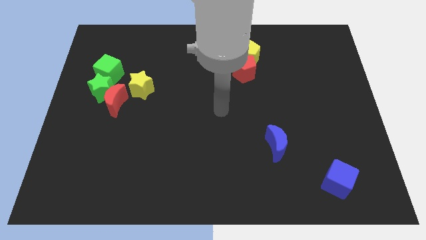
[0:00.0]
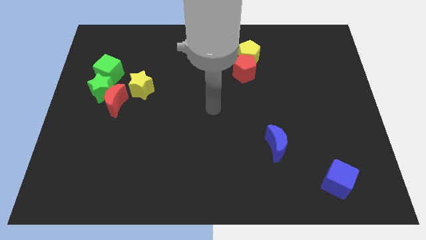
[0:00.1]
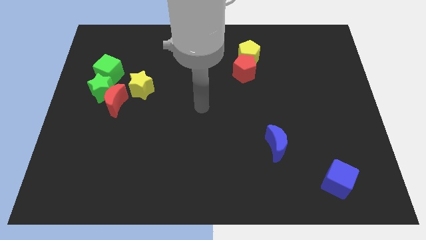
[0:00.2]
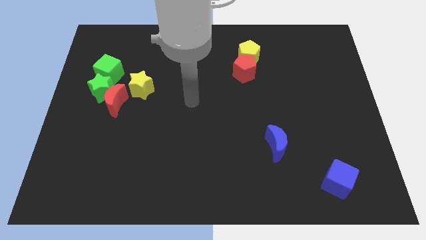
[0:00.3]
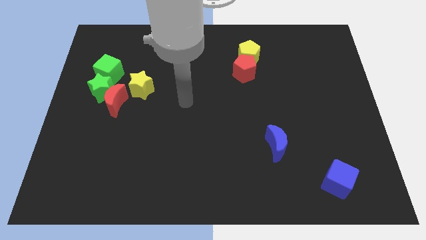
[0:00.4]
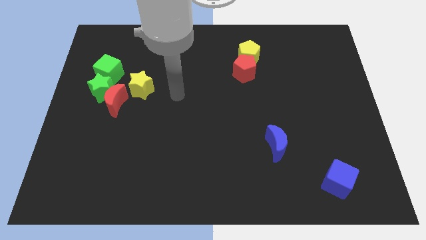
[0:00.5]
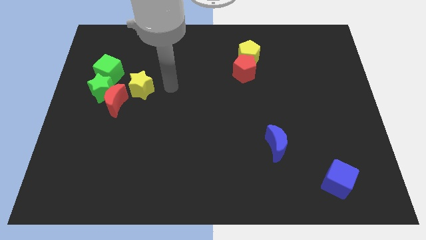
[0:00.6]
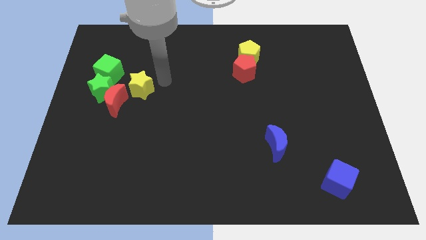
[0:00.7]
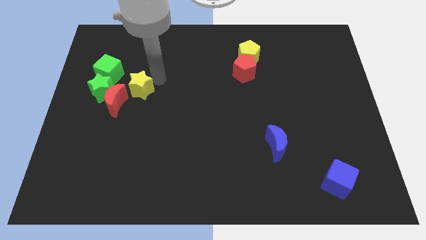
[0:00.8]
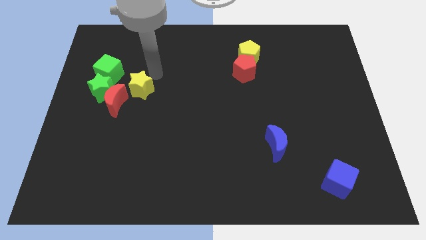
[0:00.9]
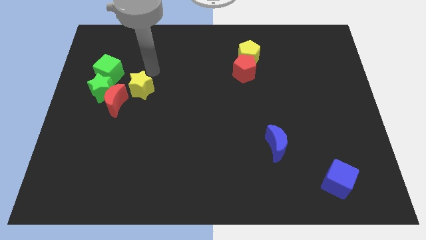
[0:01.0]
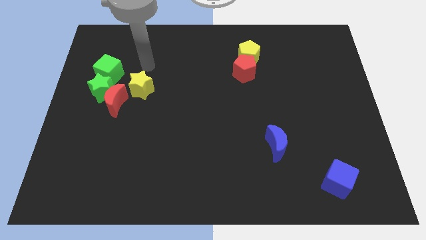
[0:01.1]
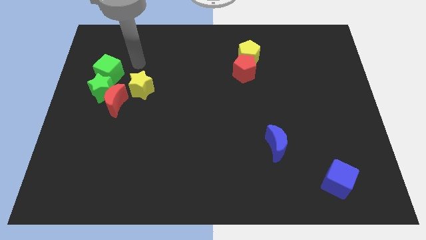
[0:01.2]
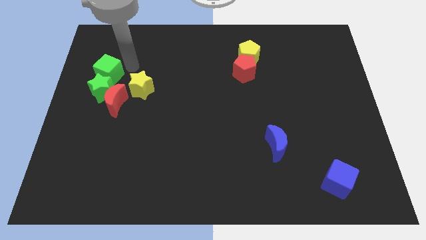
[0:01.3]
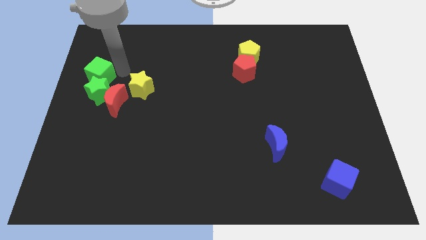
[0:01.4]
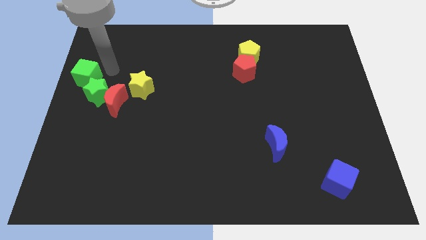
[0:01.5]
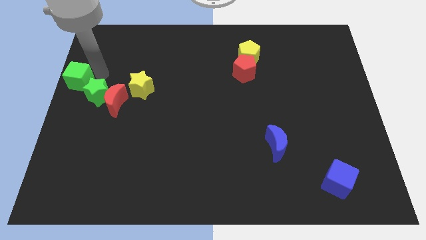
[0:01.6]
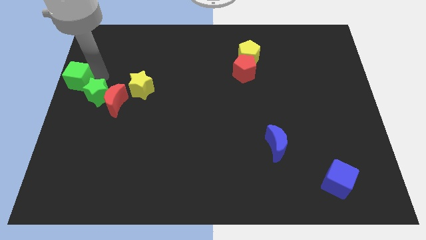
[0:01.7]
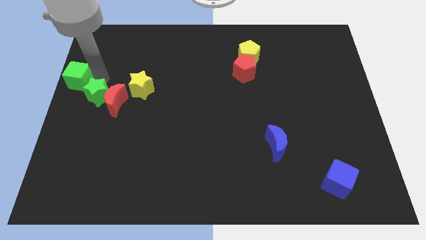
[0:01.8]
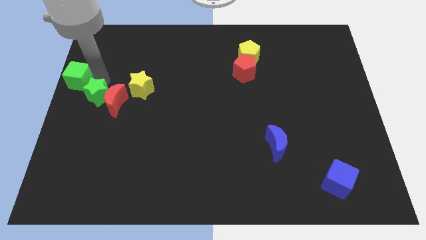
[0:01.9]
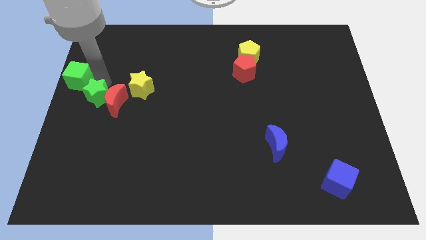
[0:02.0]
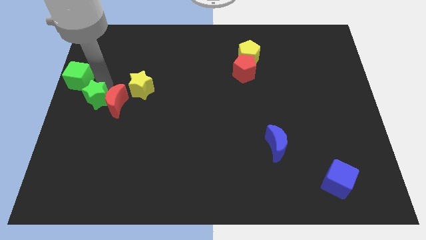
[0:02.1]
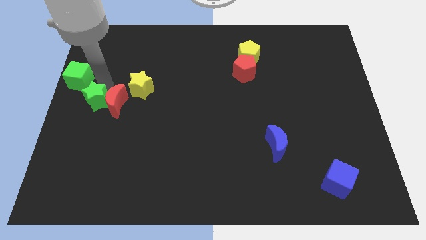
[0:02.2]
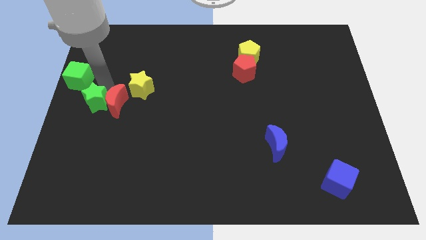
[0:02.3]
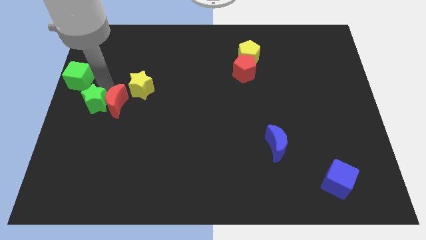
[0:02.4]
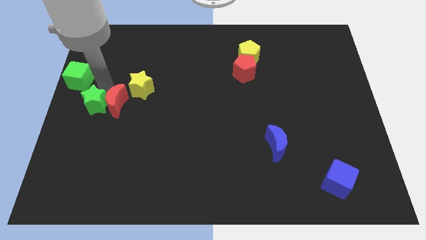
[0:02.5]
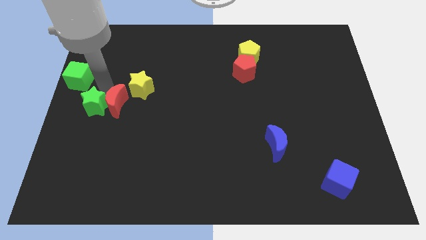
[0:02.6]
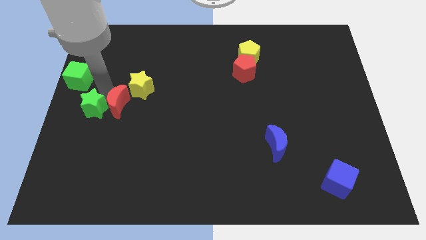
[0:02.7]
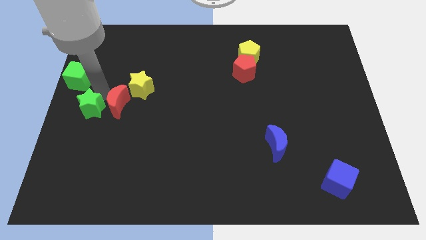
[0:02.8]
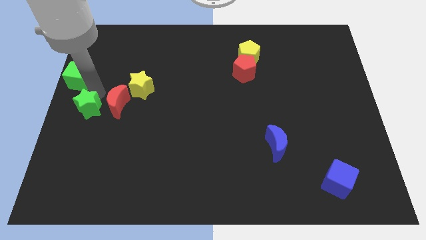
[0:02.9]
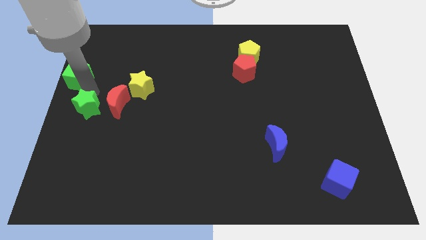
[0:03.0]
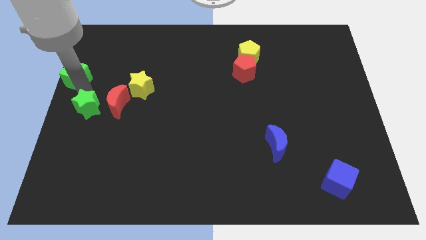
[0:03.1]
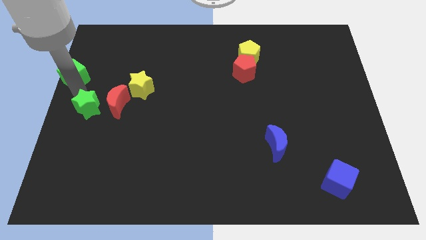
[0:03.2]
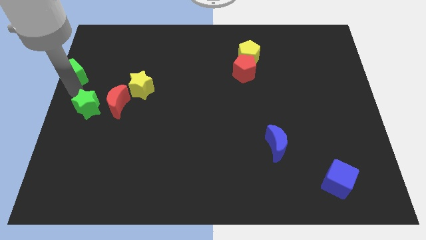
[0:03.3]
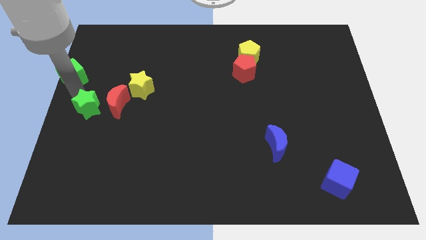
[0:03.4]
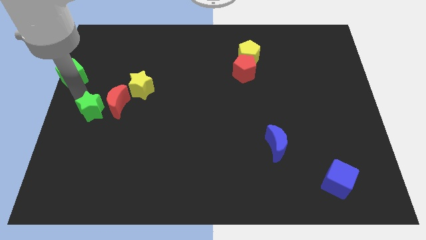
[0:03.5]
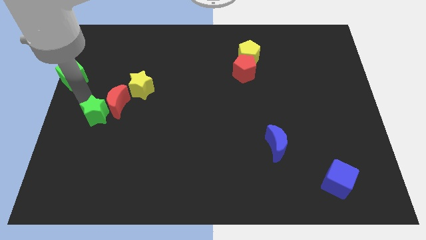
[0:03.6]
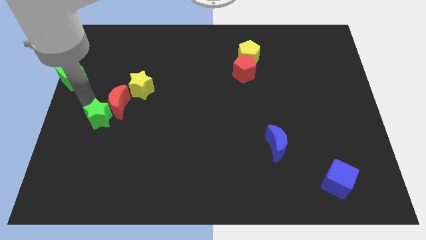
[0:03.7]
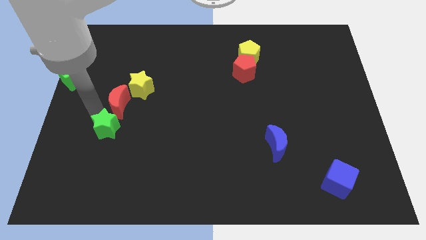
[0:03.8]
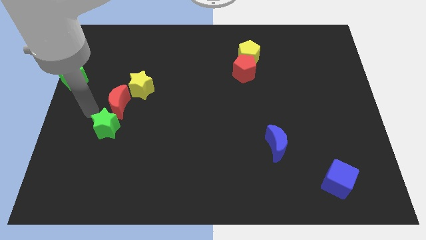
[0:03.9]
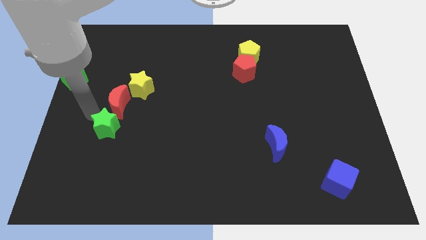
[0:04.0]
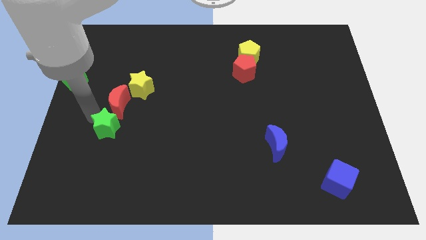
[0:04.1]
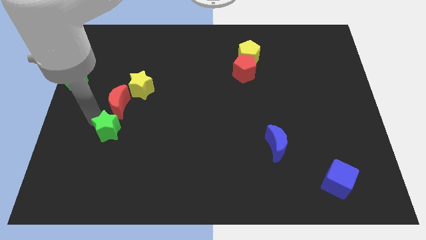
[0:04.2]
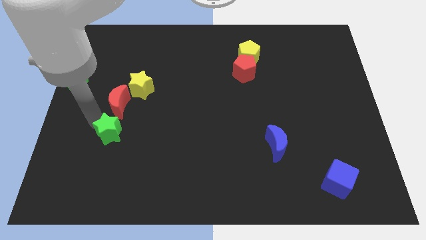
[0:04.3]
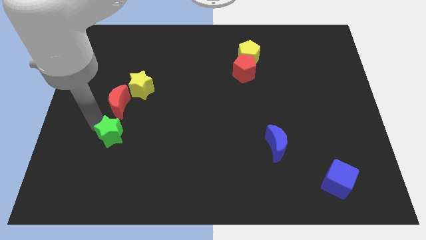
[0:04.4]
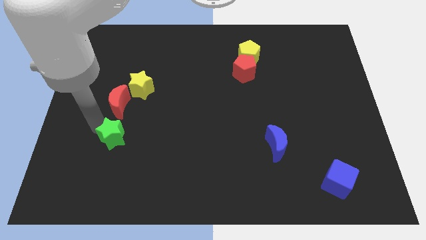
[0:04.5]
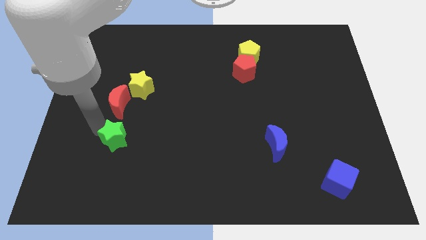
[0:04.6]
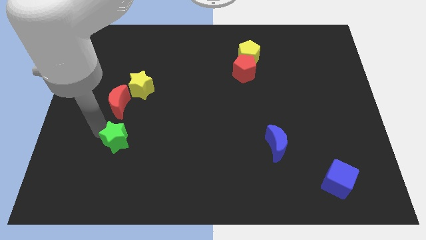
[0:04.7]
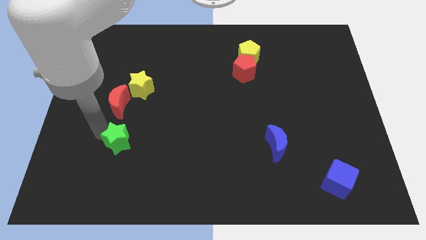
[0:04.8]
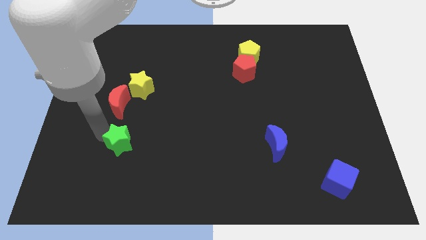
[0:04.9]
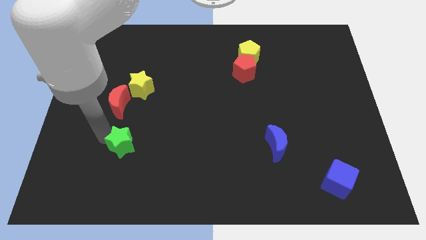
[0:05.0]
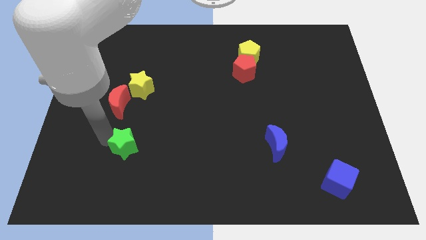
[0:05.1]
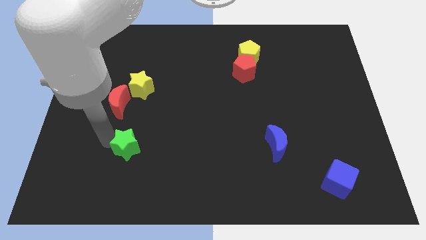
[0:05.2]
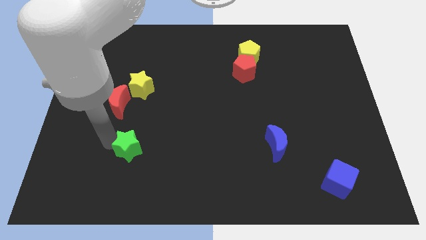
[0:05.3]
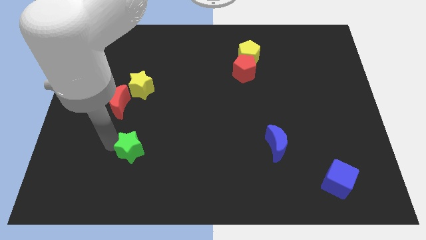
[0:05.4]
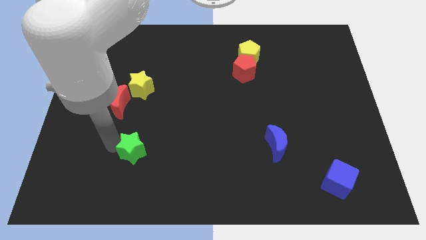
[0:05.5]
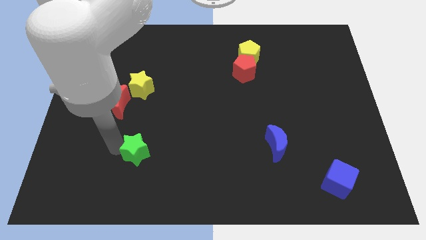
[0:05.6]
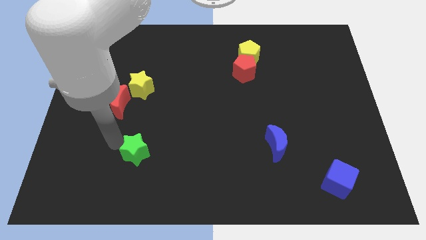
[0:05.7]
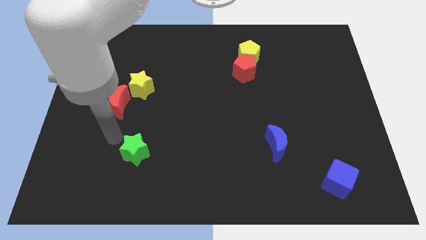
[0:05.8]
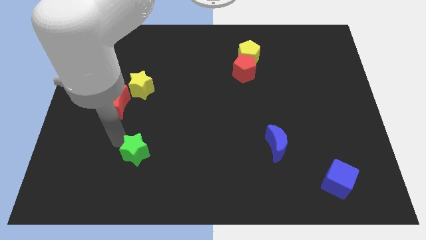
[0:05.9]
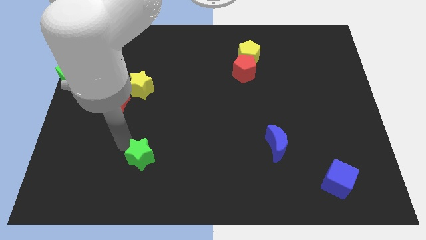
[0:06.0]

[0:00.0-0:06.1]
push the green star down and right diagonally

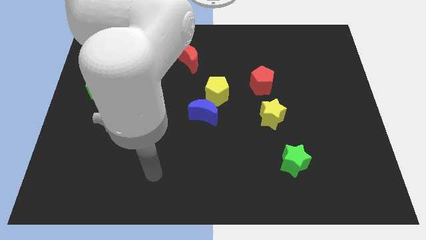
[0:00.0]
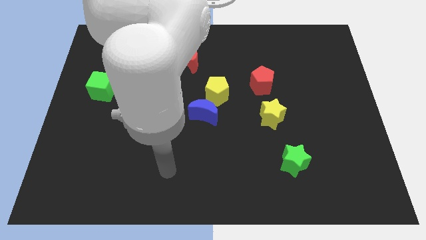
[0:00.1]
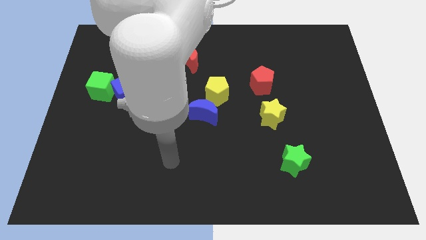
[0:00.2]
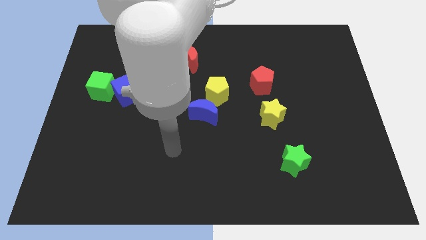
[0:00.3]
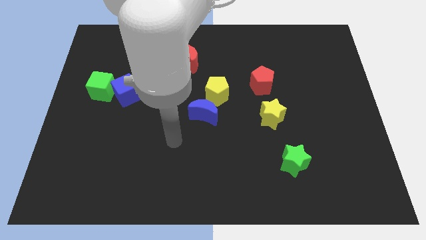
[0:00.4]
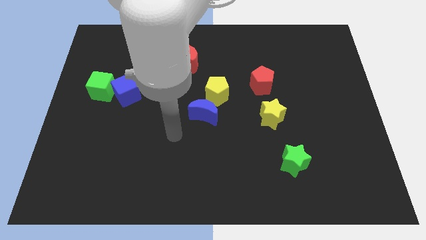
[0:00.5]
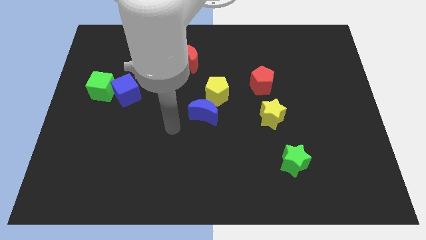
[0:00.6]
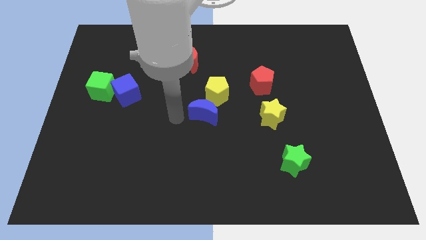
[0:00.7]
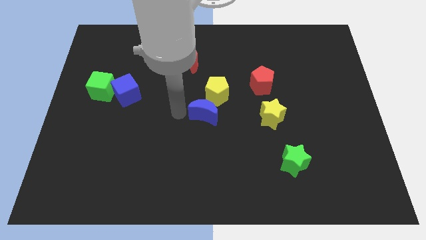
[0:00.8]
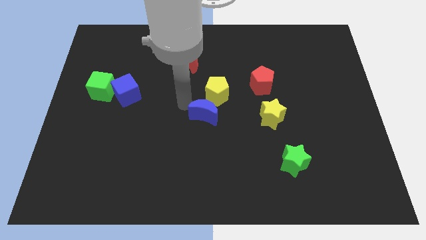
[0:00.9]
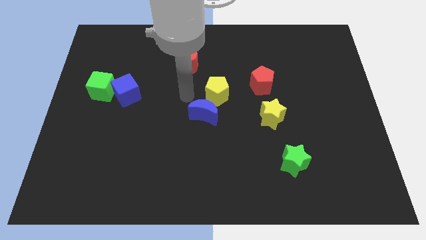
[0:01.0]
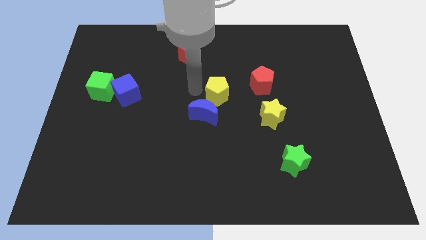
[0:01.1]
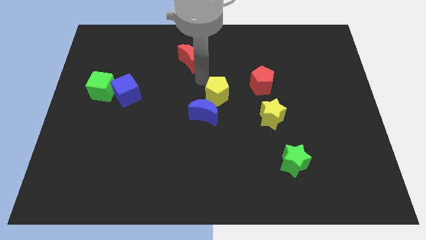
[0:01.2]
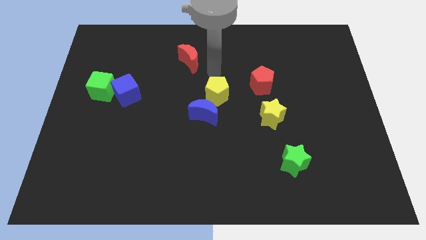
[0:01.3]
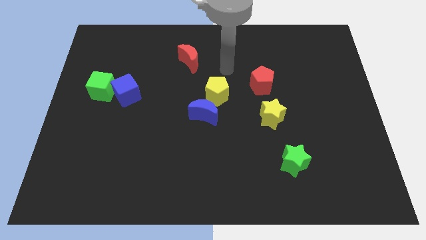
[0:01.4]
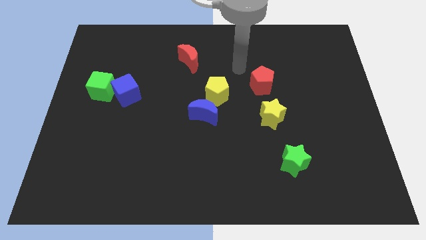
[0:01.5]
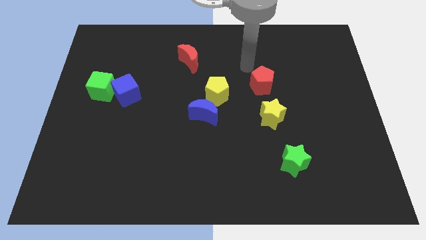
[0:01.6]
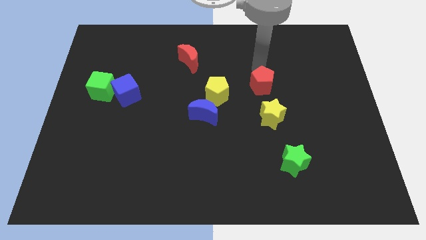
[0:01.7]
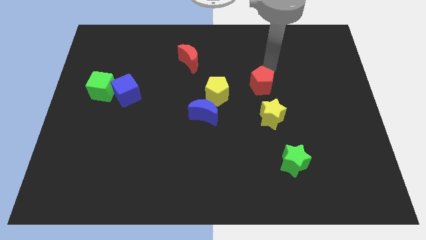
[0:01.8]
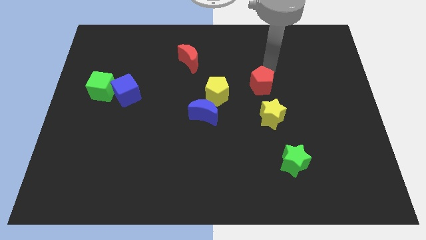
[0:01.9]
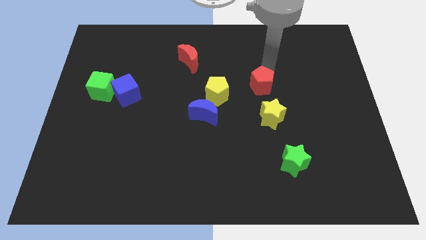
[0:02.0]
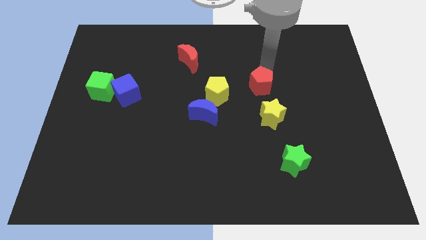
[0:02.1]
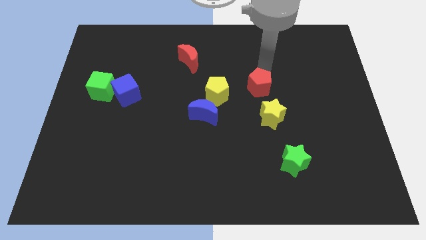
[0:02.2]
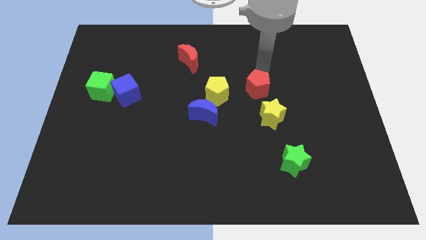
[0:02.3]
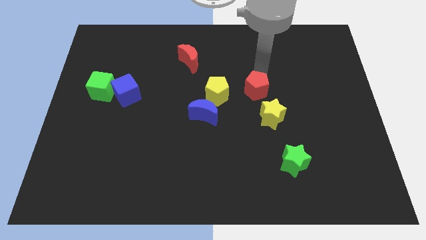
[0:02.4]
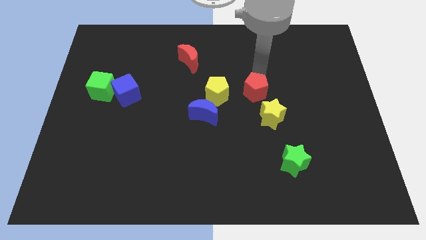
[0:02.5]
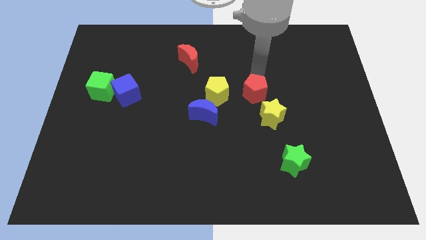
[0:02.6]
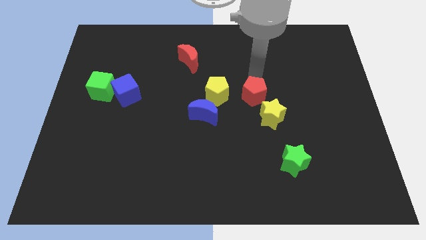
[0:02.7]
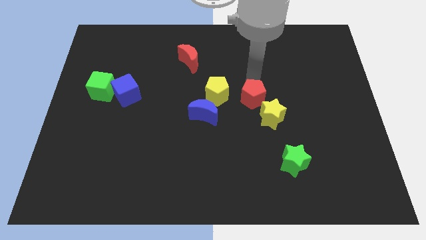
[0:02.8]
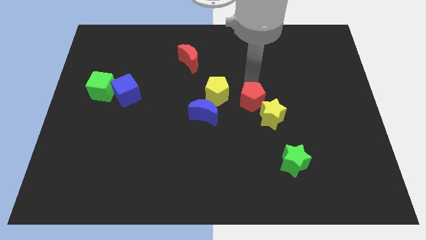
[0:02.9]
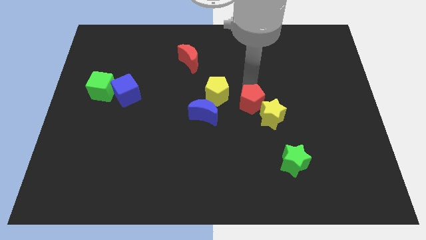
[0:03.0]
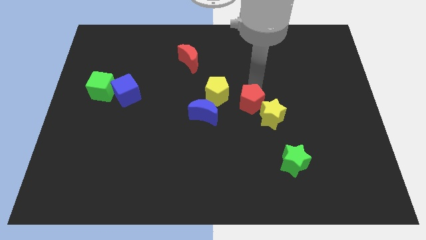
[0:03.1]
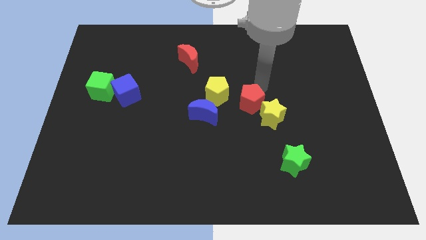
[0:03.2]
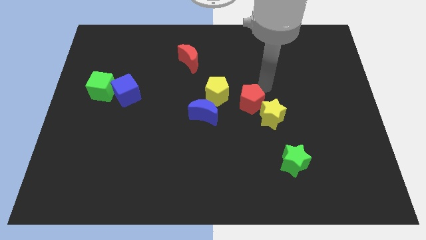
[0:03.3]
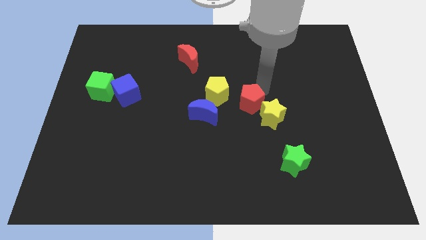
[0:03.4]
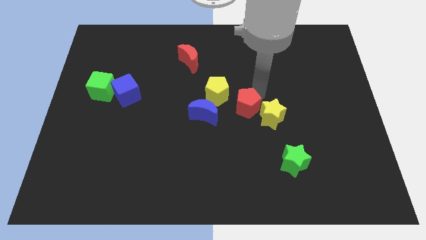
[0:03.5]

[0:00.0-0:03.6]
move the red pentagon a little downwards and to the left
